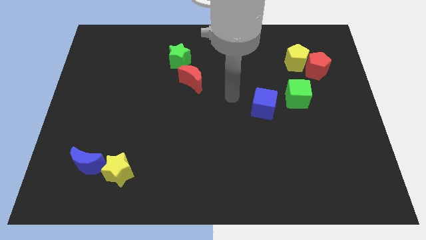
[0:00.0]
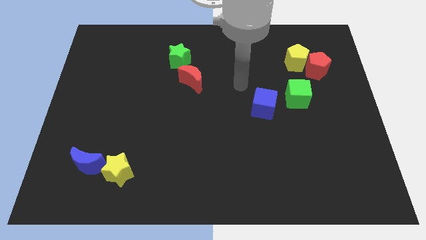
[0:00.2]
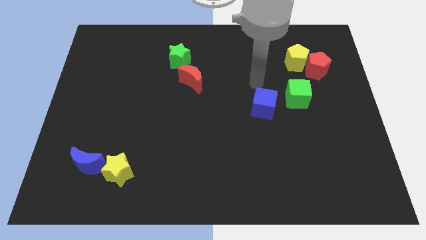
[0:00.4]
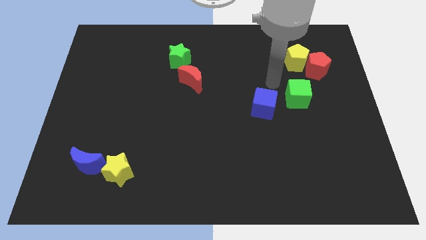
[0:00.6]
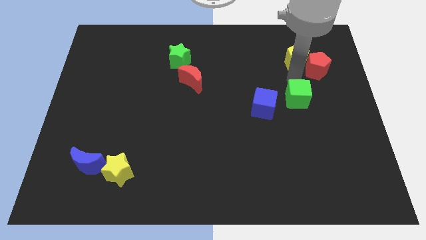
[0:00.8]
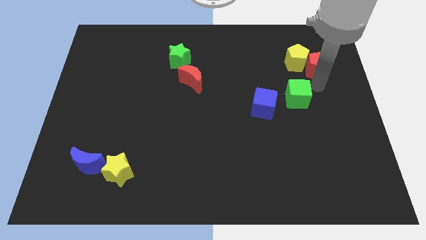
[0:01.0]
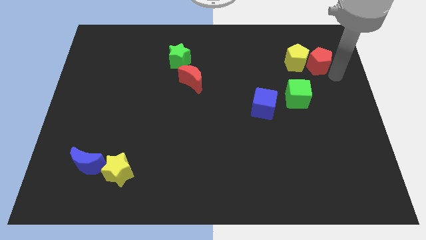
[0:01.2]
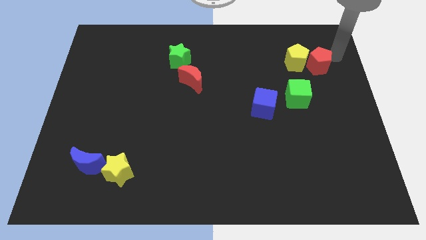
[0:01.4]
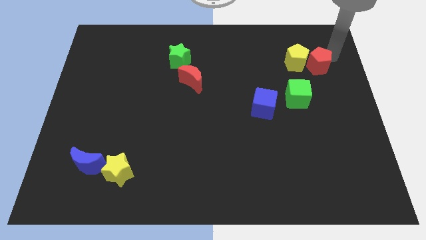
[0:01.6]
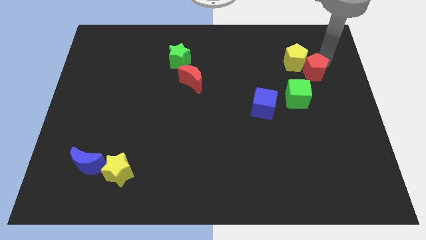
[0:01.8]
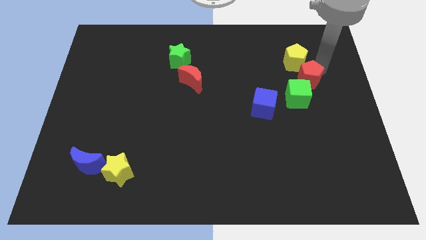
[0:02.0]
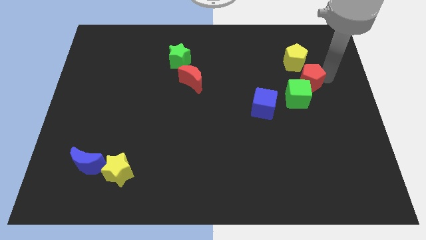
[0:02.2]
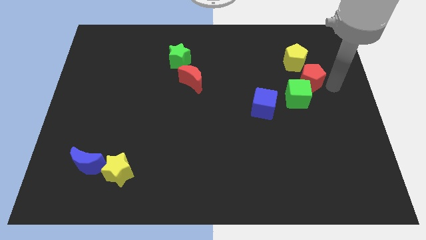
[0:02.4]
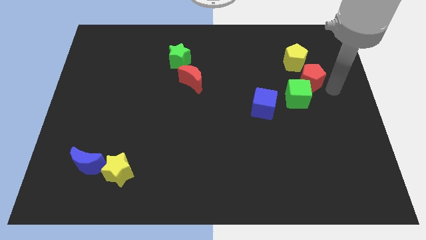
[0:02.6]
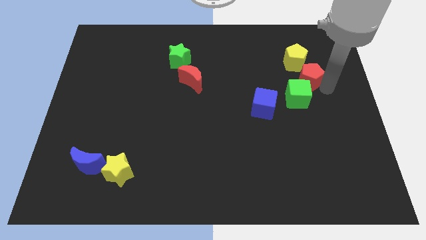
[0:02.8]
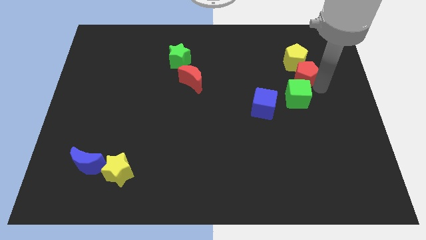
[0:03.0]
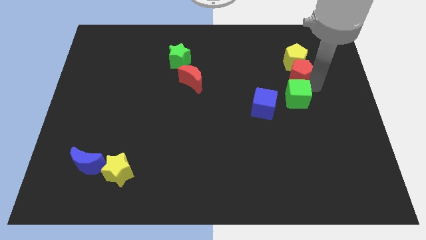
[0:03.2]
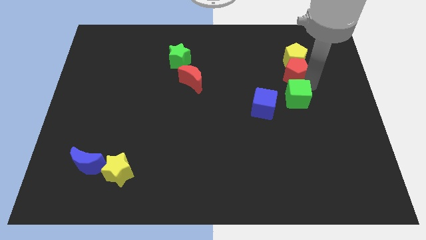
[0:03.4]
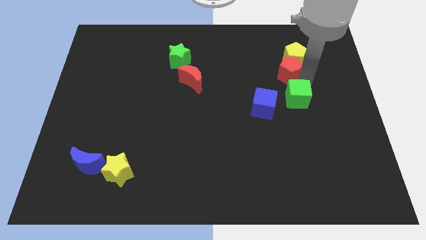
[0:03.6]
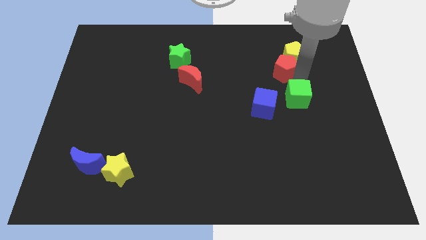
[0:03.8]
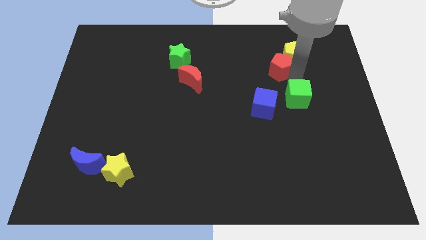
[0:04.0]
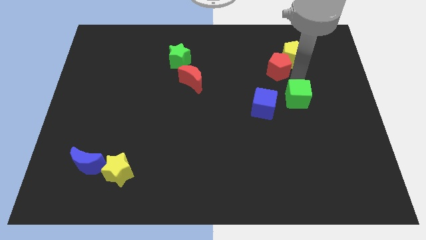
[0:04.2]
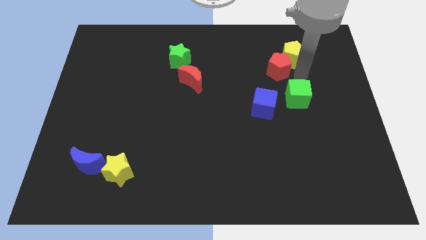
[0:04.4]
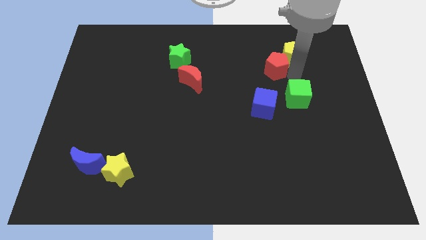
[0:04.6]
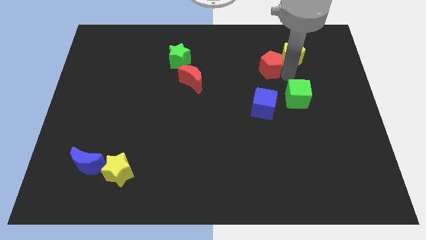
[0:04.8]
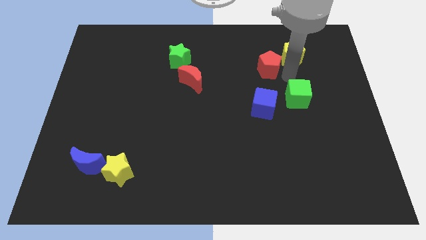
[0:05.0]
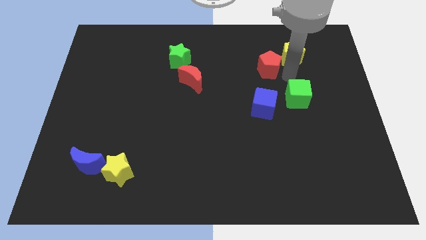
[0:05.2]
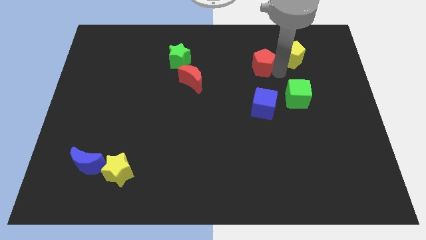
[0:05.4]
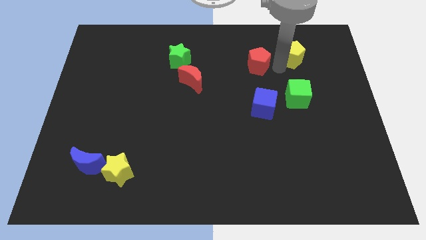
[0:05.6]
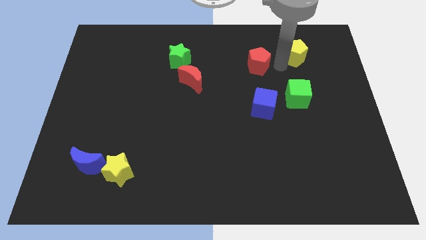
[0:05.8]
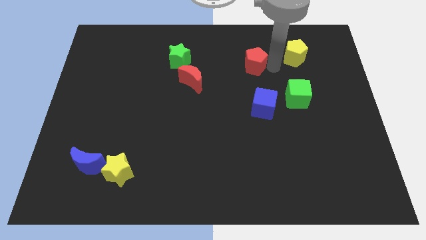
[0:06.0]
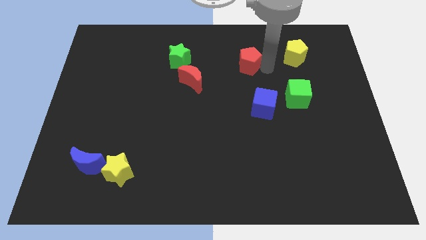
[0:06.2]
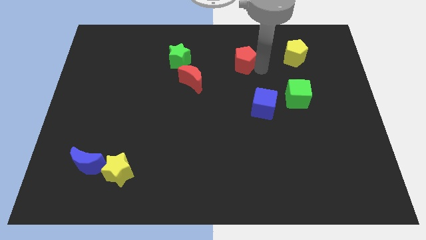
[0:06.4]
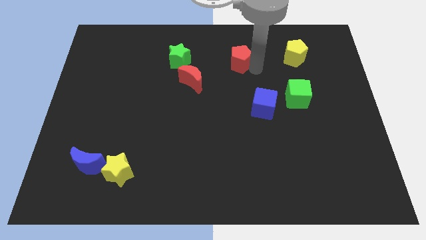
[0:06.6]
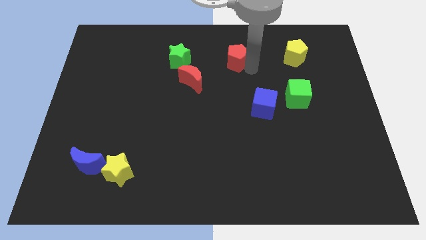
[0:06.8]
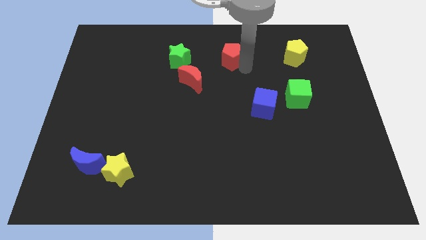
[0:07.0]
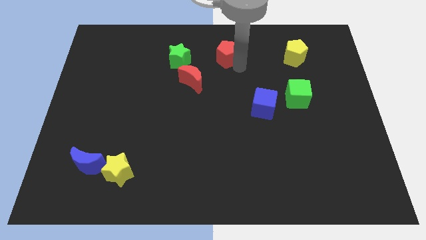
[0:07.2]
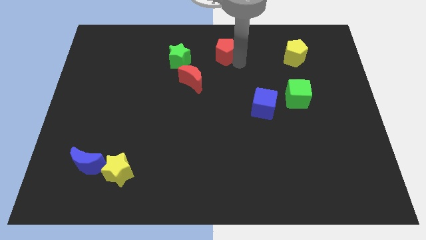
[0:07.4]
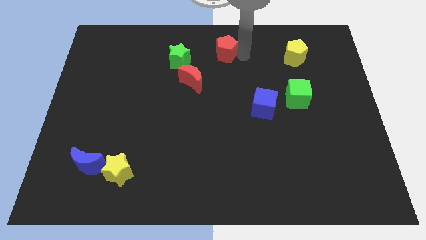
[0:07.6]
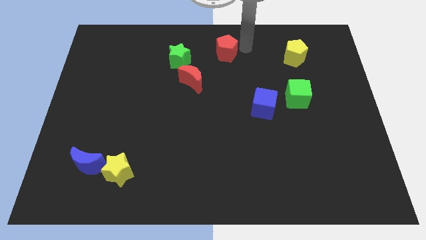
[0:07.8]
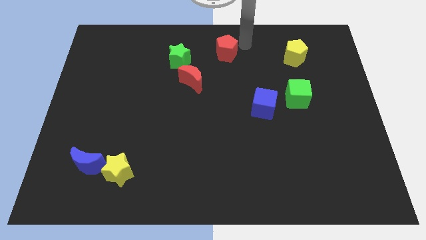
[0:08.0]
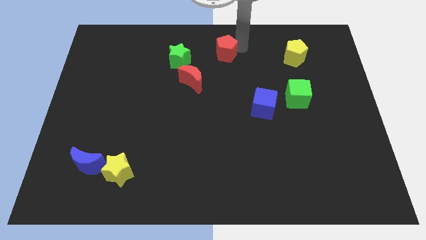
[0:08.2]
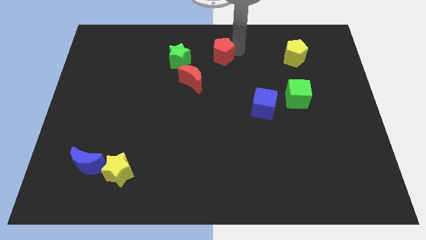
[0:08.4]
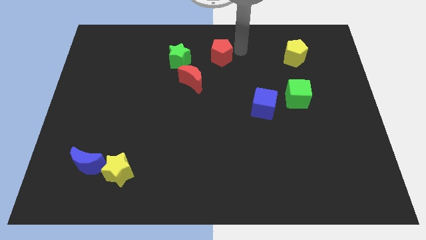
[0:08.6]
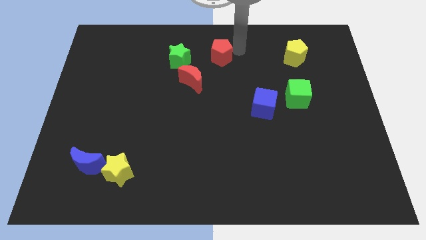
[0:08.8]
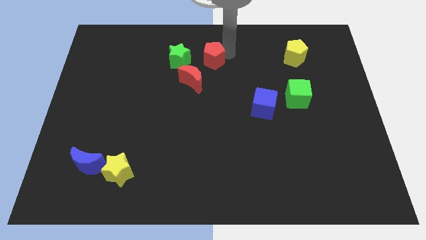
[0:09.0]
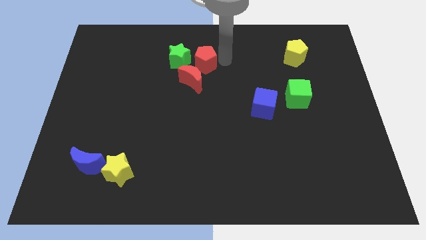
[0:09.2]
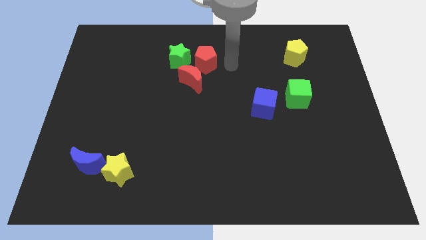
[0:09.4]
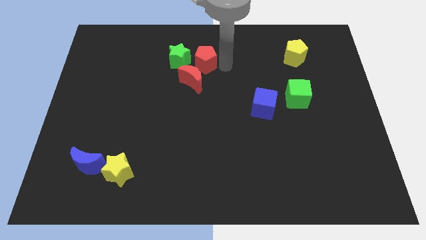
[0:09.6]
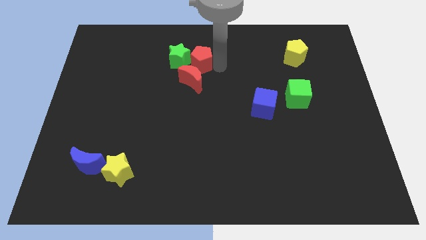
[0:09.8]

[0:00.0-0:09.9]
slide the red pentagon next to the green star

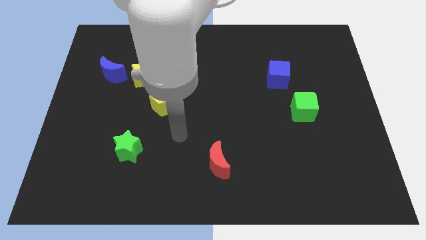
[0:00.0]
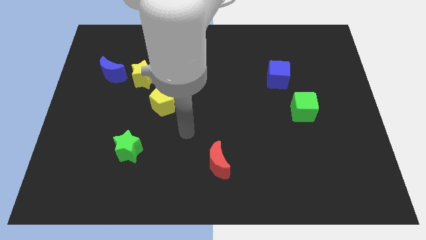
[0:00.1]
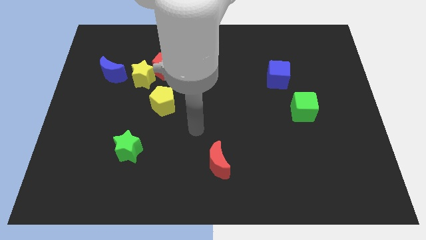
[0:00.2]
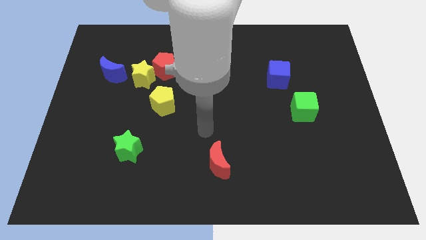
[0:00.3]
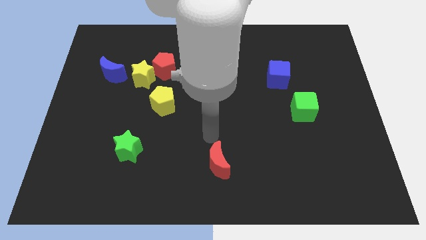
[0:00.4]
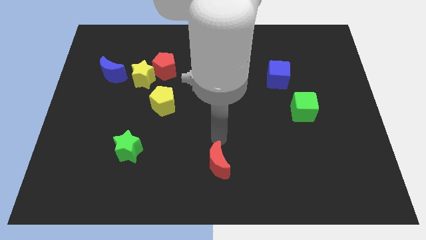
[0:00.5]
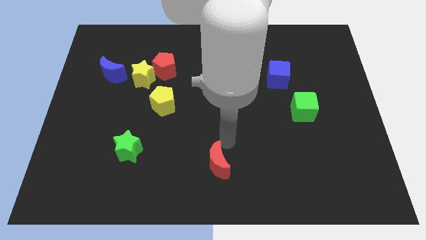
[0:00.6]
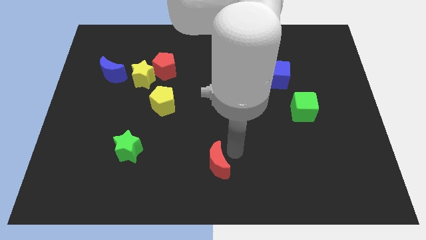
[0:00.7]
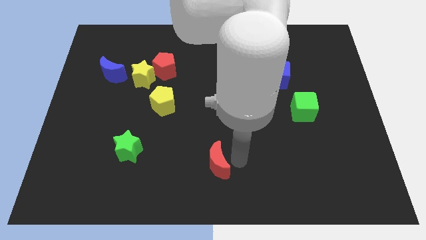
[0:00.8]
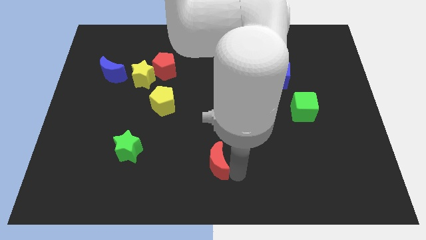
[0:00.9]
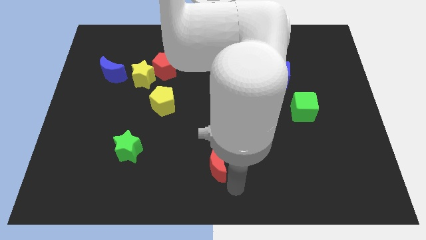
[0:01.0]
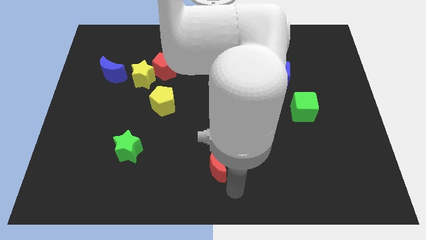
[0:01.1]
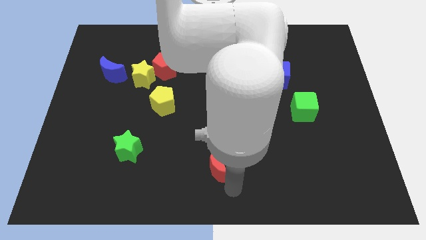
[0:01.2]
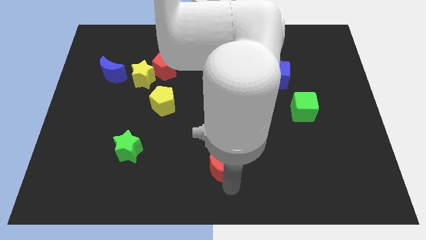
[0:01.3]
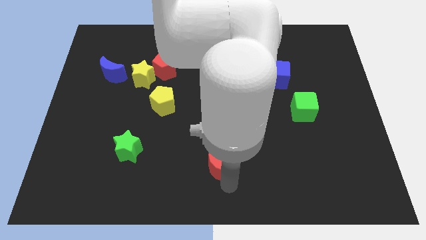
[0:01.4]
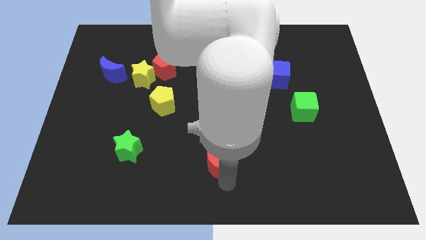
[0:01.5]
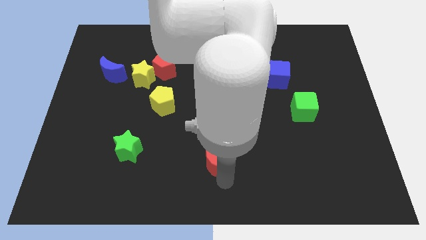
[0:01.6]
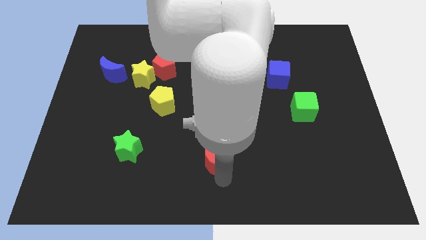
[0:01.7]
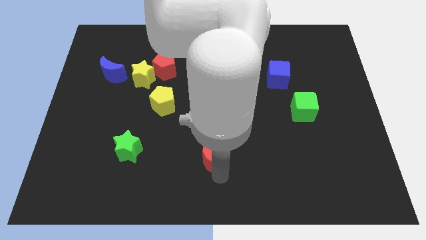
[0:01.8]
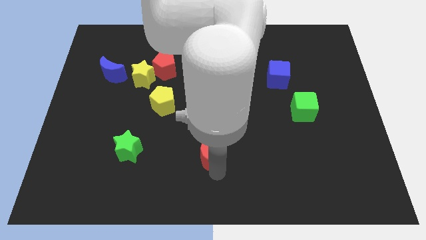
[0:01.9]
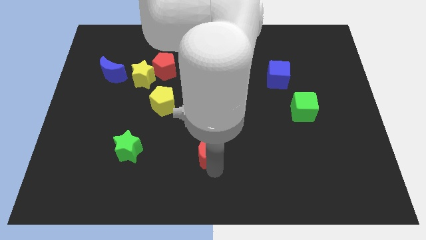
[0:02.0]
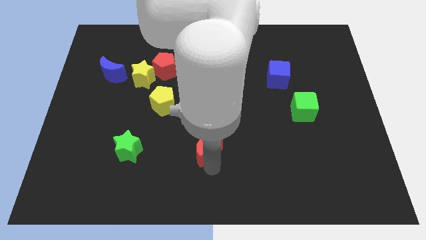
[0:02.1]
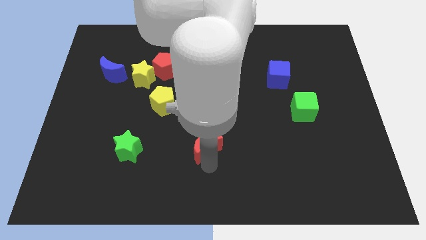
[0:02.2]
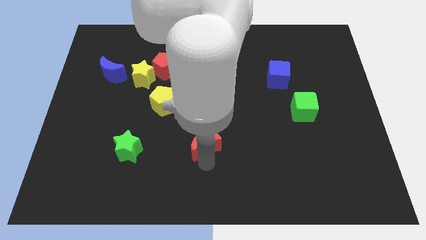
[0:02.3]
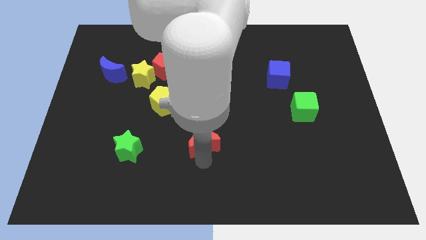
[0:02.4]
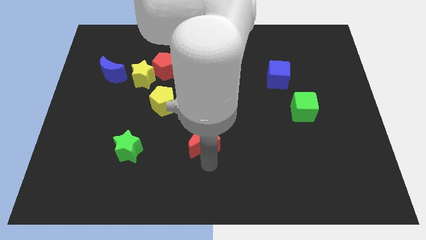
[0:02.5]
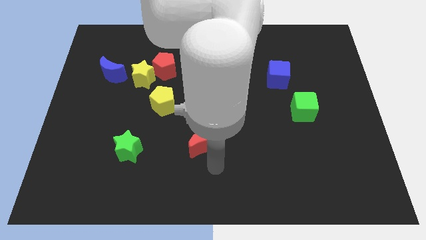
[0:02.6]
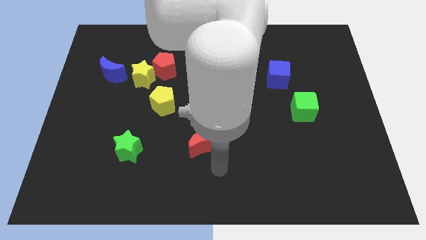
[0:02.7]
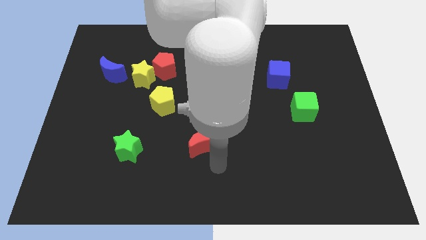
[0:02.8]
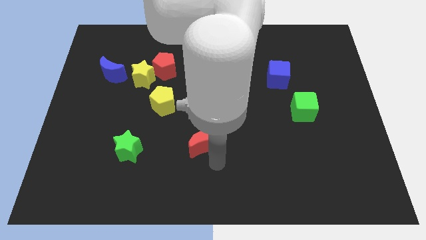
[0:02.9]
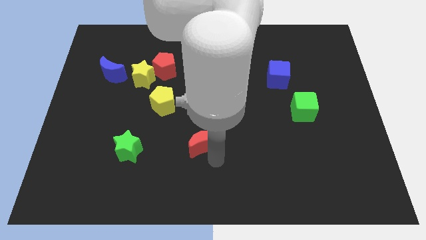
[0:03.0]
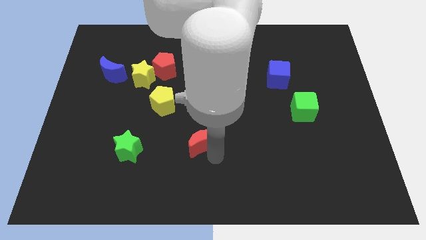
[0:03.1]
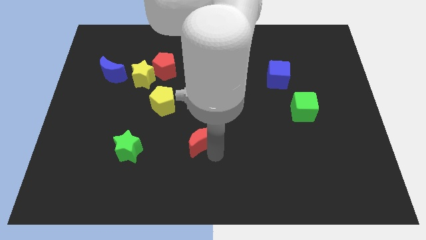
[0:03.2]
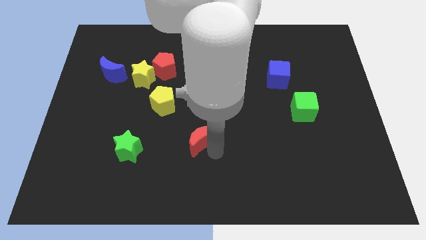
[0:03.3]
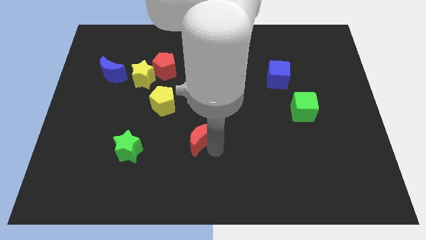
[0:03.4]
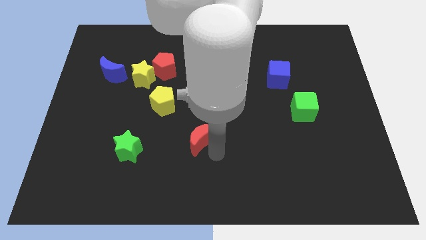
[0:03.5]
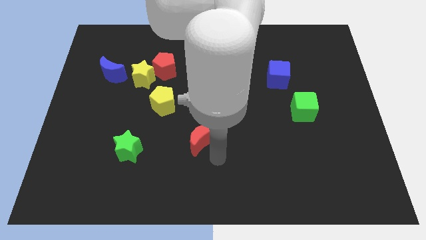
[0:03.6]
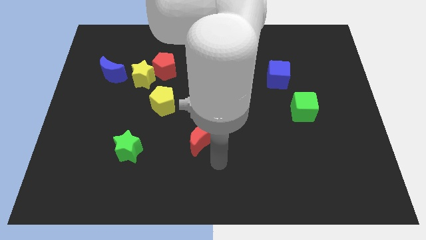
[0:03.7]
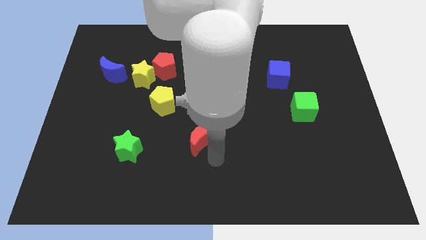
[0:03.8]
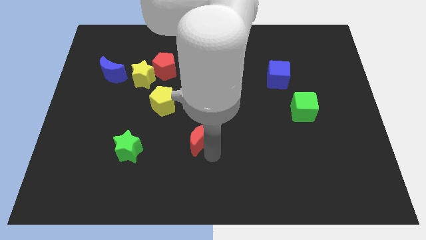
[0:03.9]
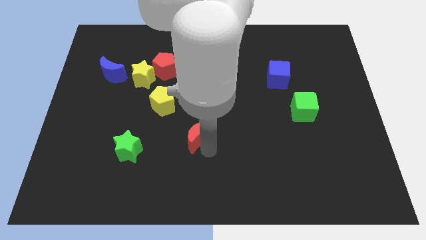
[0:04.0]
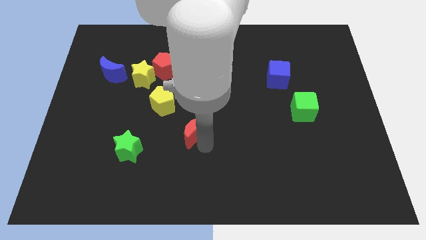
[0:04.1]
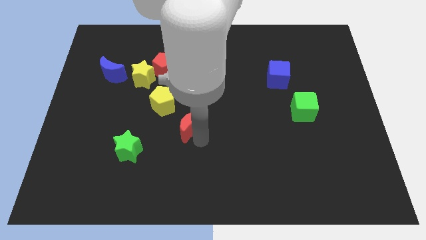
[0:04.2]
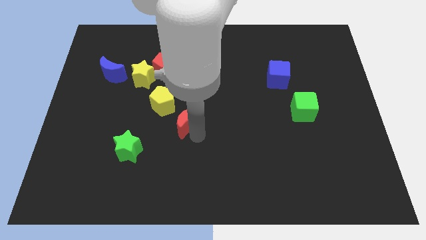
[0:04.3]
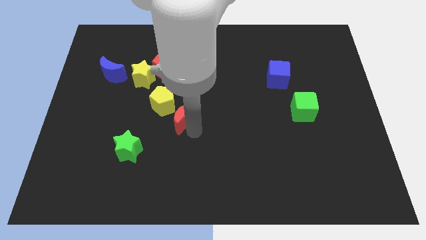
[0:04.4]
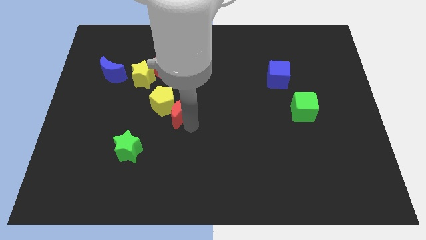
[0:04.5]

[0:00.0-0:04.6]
slide the red moon close to the yellow pentagon
